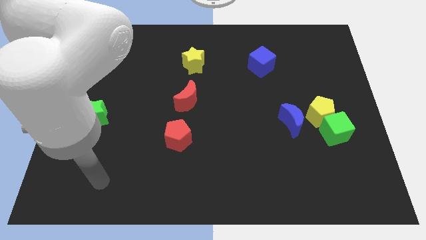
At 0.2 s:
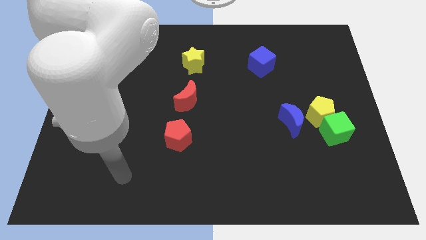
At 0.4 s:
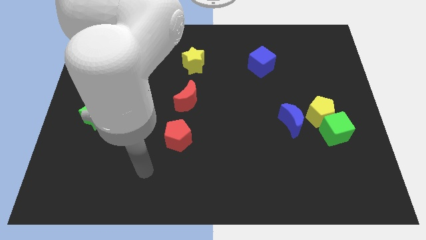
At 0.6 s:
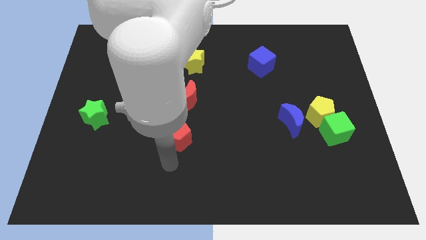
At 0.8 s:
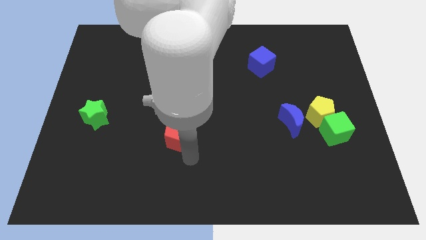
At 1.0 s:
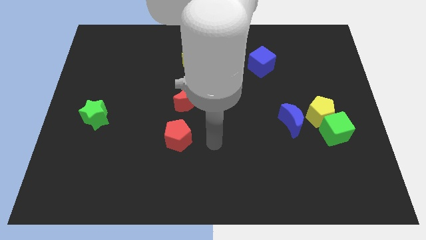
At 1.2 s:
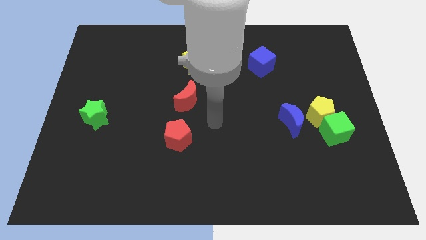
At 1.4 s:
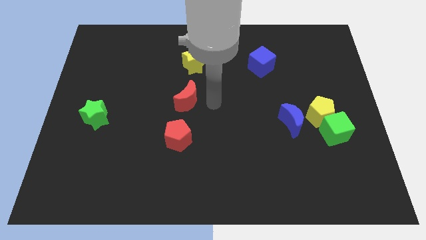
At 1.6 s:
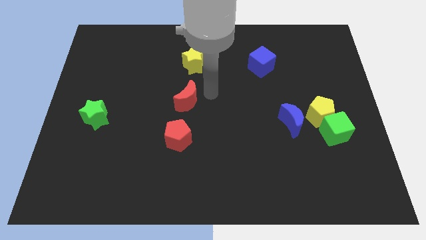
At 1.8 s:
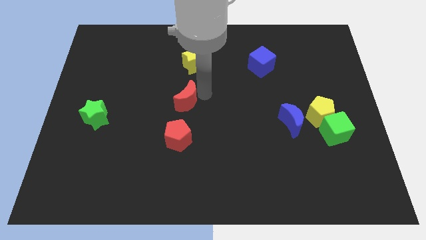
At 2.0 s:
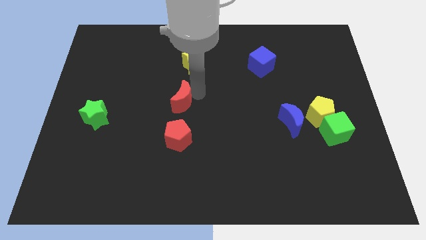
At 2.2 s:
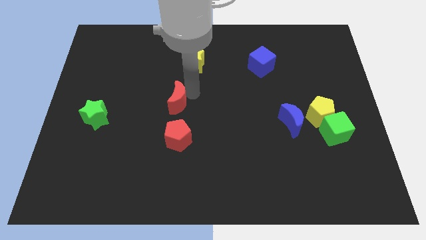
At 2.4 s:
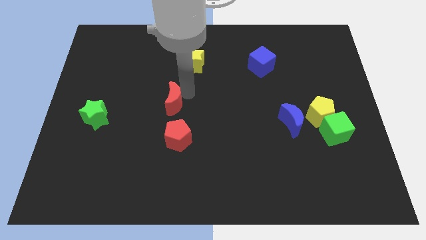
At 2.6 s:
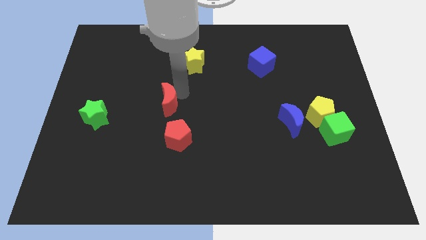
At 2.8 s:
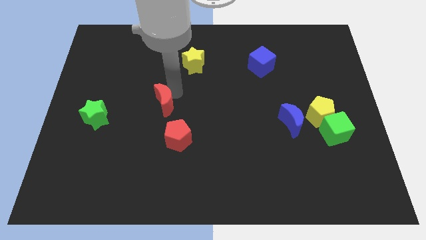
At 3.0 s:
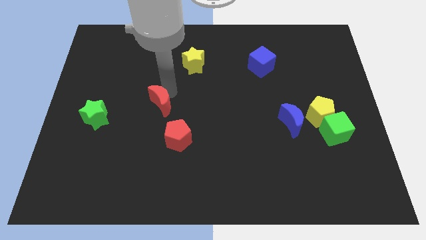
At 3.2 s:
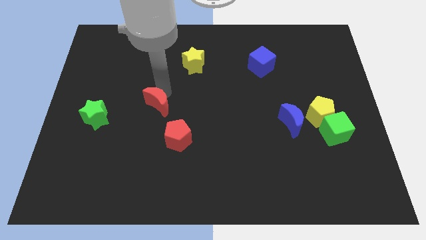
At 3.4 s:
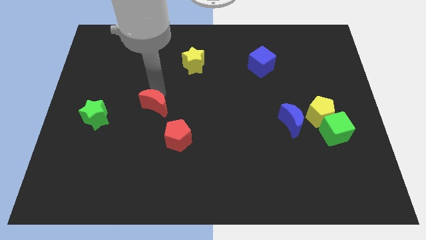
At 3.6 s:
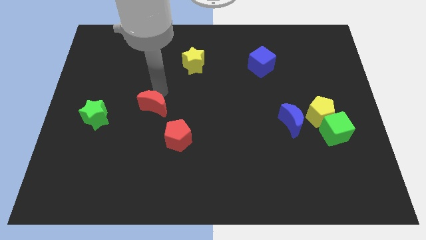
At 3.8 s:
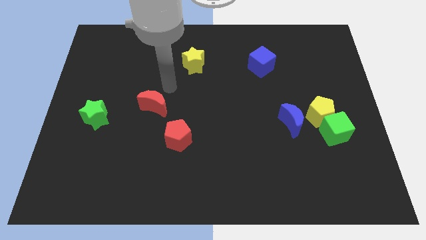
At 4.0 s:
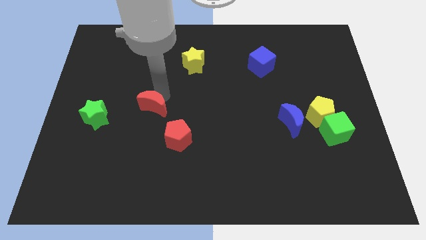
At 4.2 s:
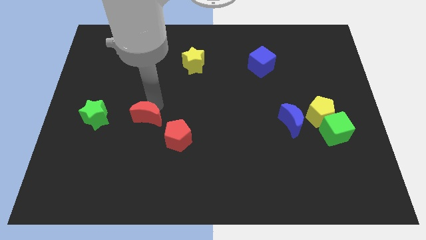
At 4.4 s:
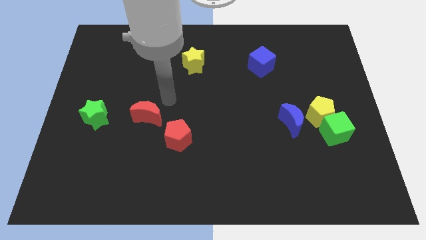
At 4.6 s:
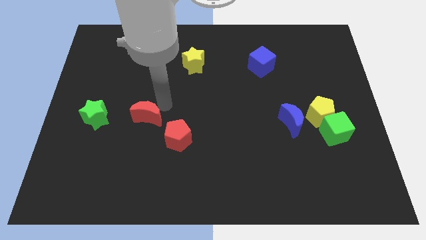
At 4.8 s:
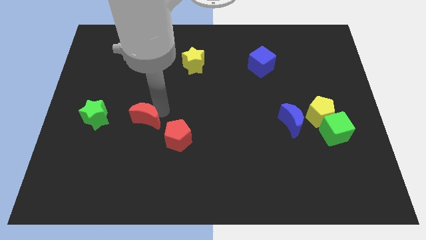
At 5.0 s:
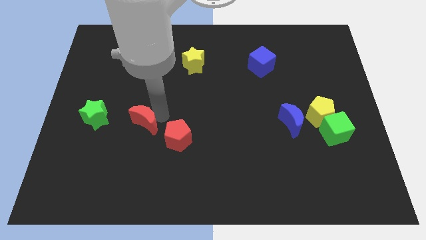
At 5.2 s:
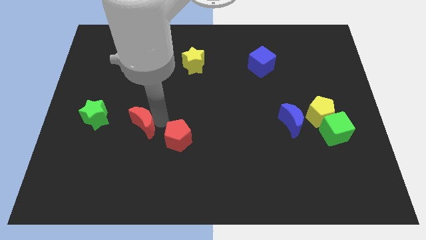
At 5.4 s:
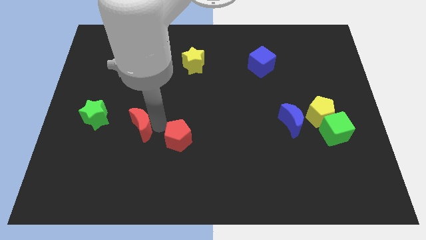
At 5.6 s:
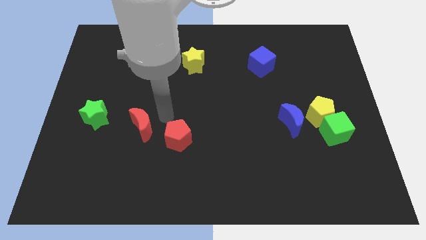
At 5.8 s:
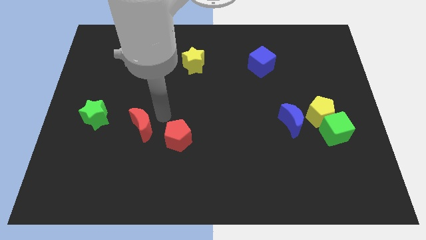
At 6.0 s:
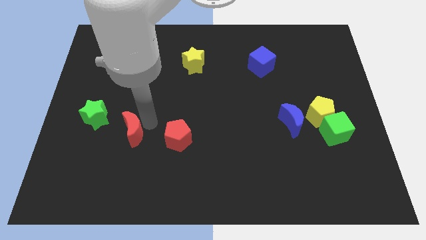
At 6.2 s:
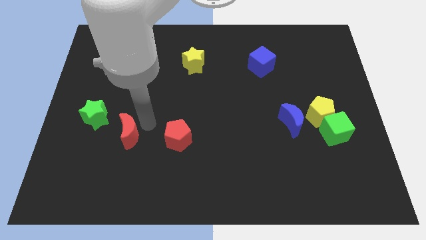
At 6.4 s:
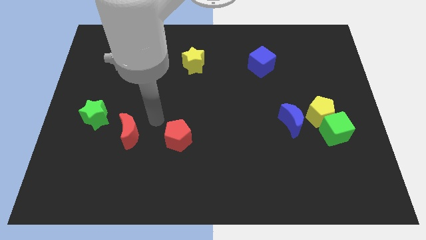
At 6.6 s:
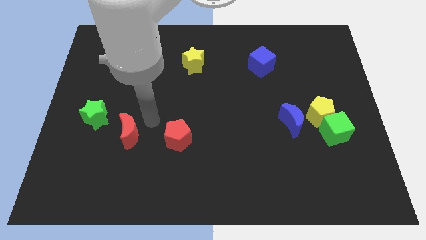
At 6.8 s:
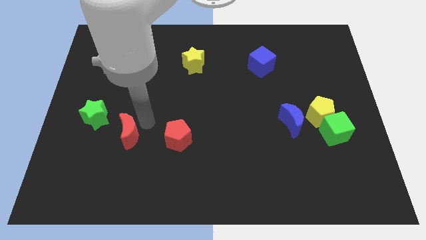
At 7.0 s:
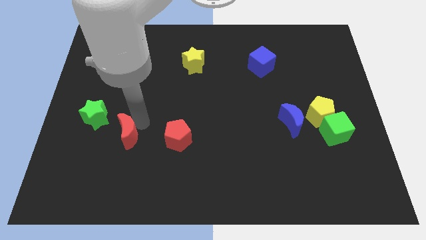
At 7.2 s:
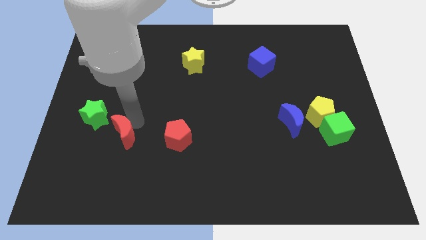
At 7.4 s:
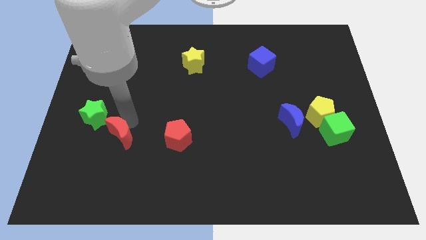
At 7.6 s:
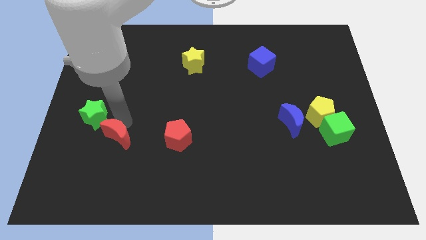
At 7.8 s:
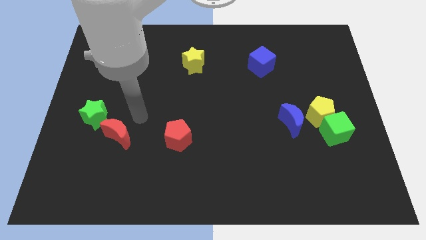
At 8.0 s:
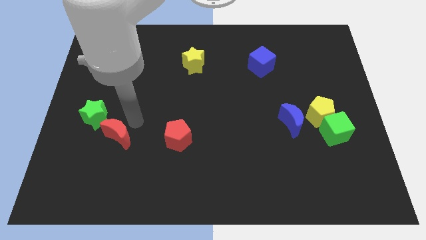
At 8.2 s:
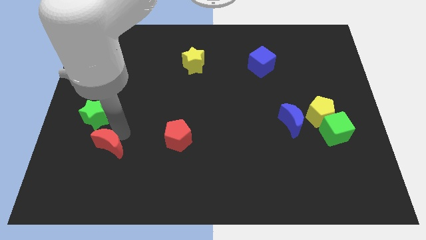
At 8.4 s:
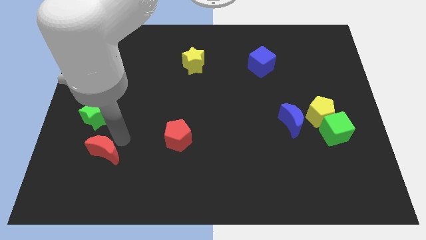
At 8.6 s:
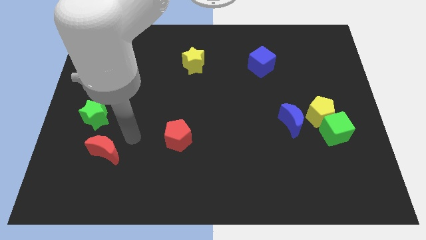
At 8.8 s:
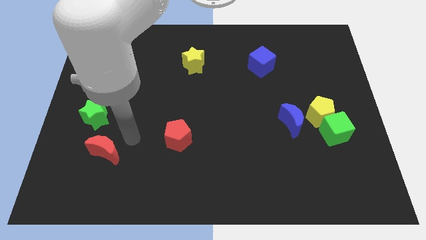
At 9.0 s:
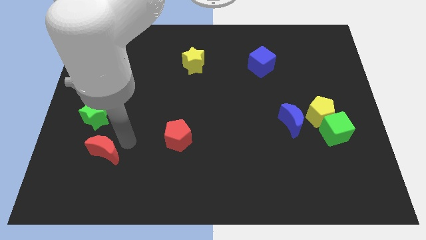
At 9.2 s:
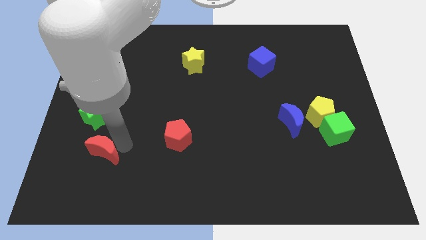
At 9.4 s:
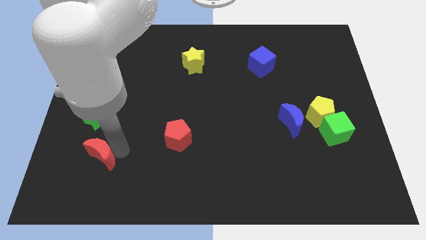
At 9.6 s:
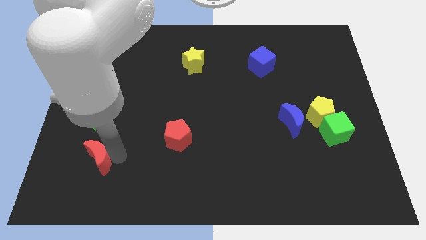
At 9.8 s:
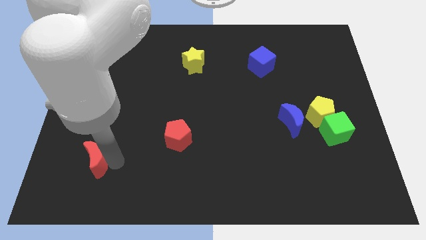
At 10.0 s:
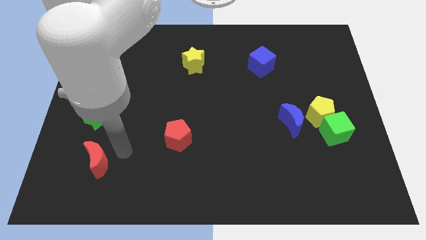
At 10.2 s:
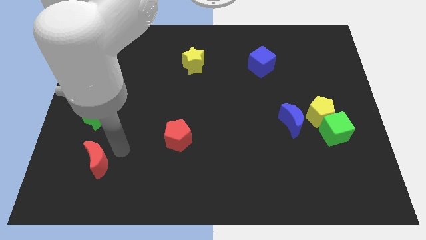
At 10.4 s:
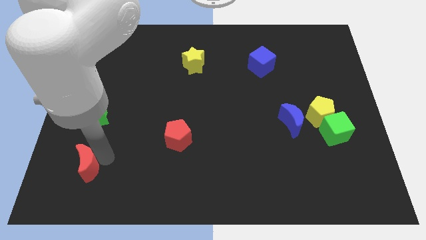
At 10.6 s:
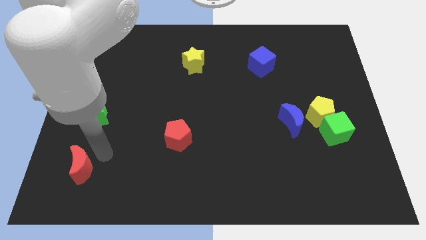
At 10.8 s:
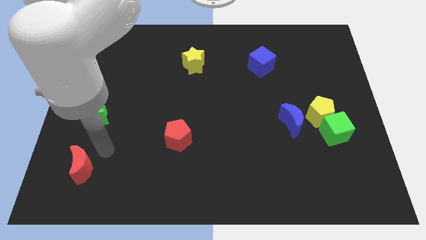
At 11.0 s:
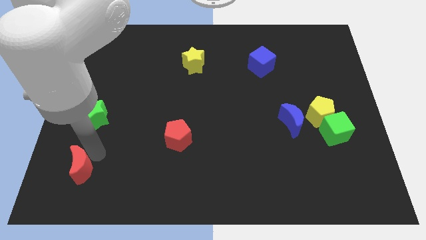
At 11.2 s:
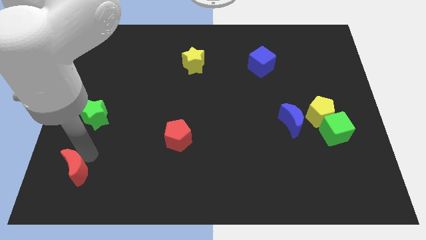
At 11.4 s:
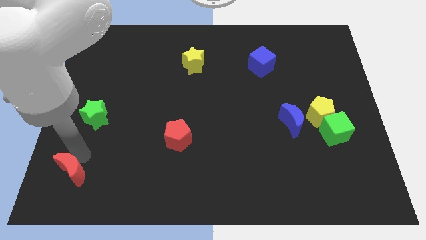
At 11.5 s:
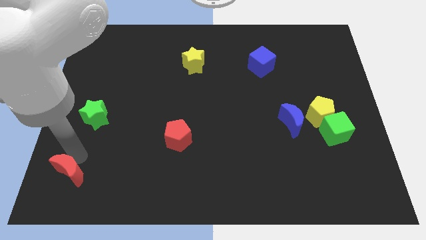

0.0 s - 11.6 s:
push the red moon to the lower left corner
